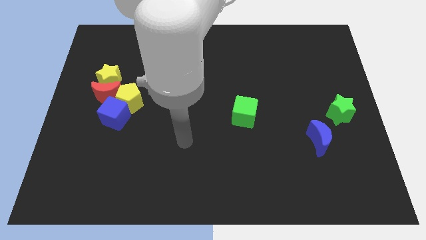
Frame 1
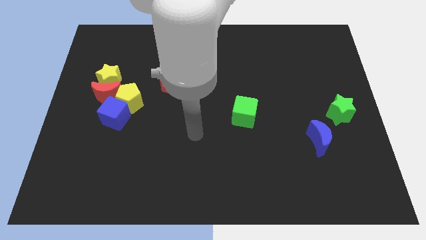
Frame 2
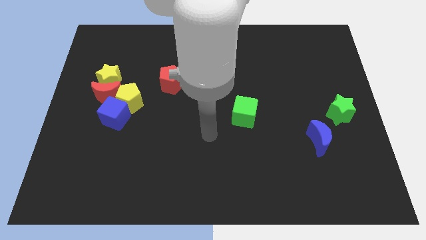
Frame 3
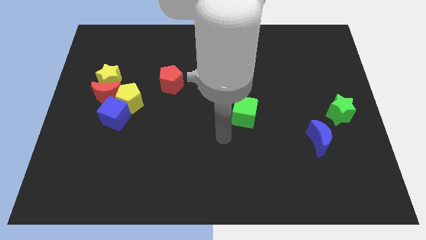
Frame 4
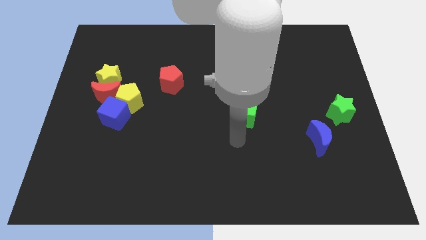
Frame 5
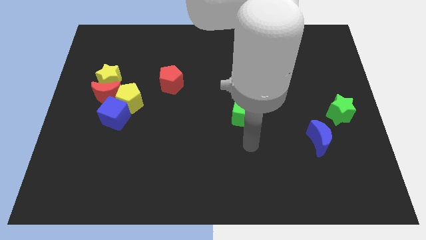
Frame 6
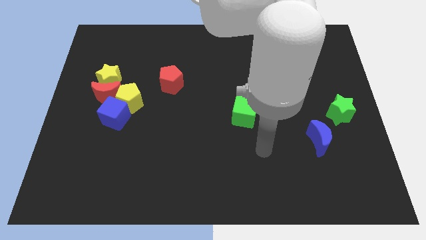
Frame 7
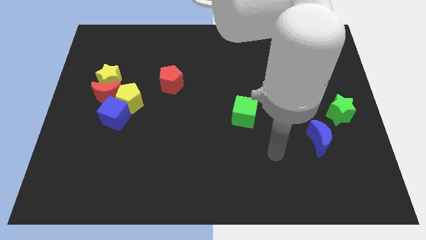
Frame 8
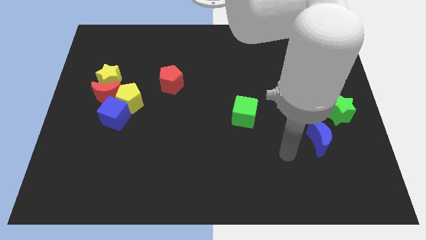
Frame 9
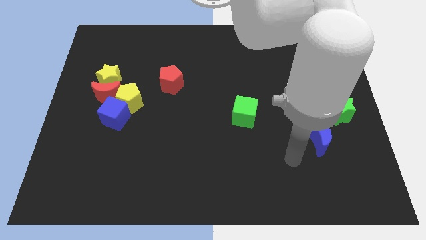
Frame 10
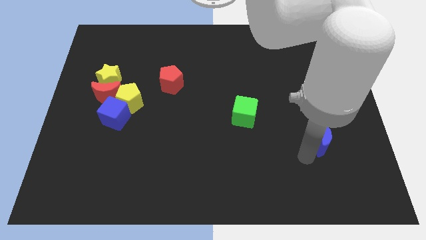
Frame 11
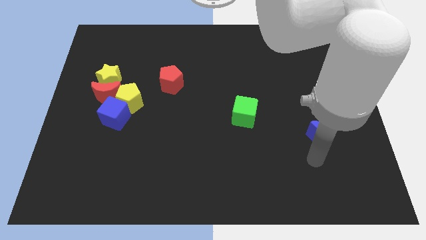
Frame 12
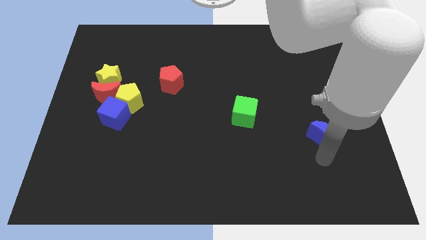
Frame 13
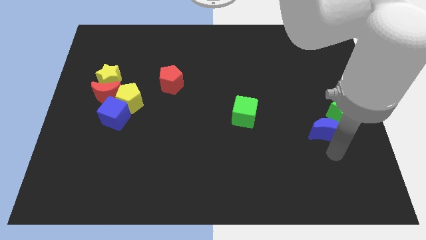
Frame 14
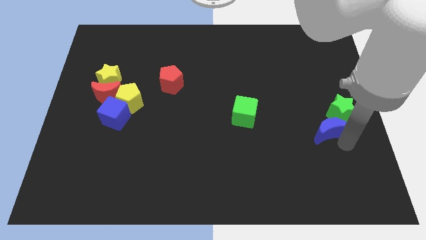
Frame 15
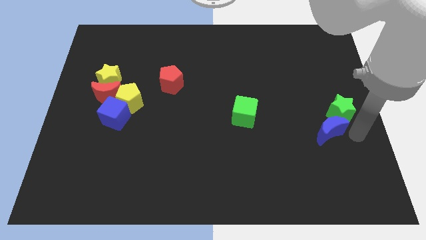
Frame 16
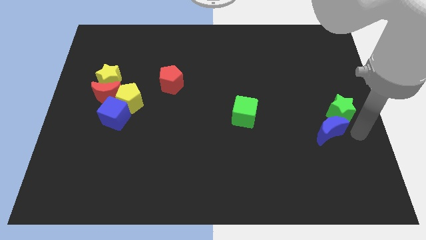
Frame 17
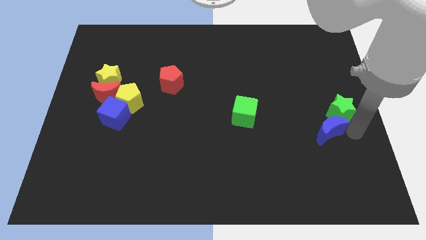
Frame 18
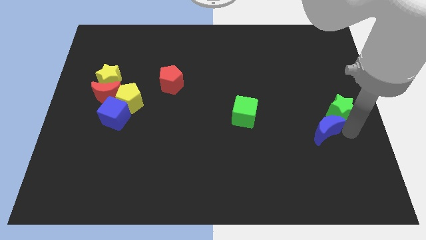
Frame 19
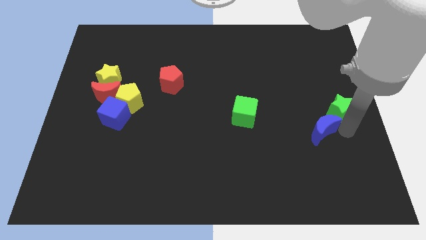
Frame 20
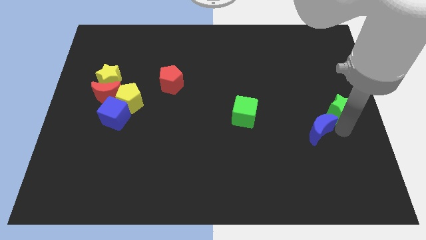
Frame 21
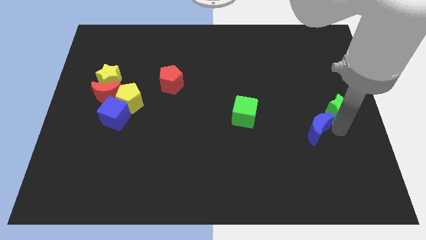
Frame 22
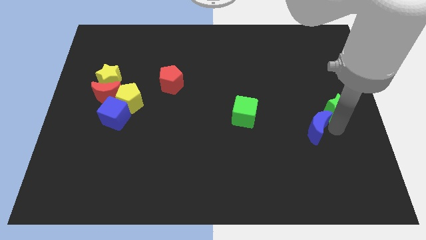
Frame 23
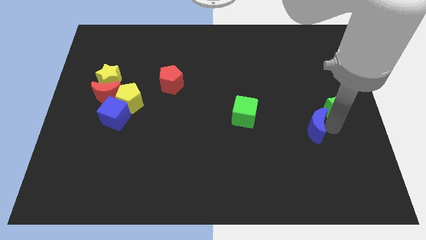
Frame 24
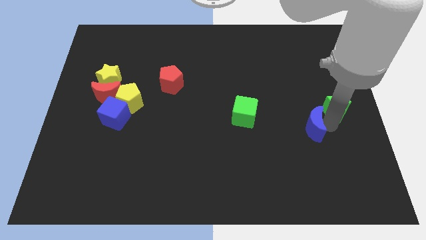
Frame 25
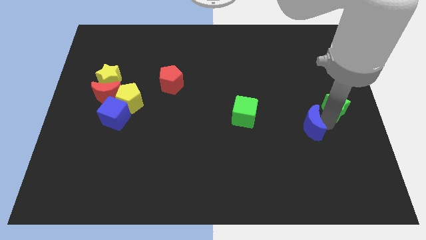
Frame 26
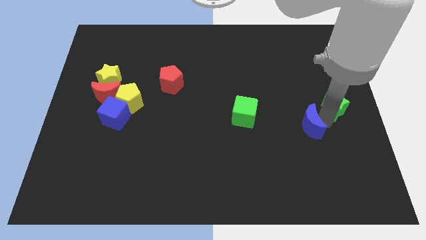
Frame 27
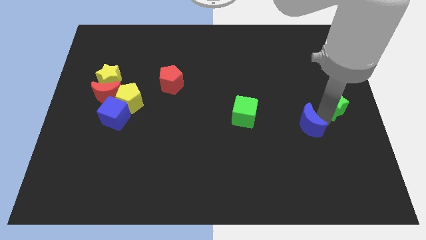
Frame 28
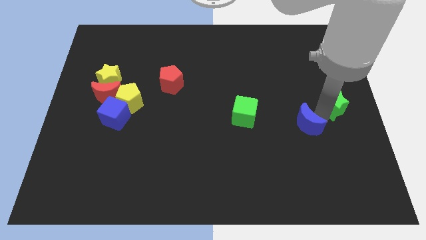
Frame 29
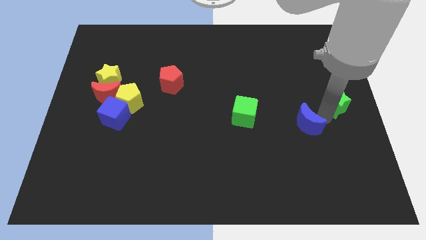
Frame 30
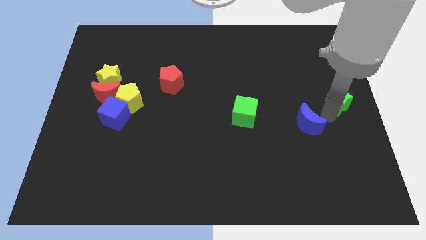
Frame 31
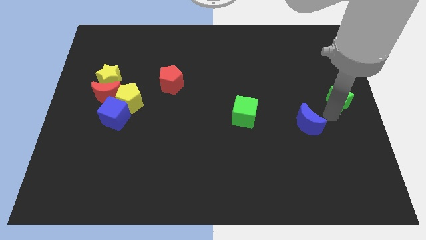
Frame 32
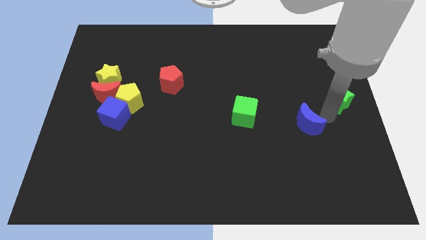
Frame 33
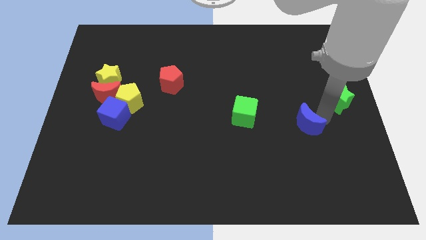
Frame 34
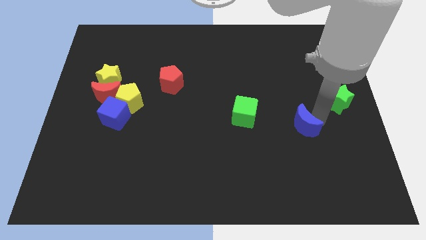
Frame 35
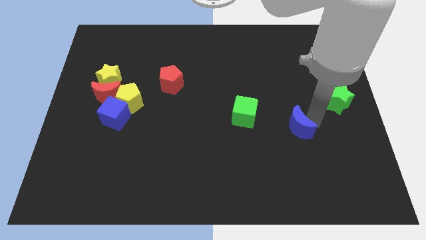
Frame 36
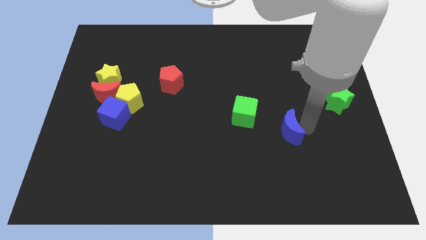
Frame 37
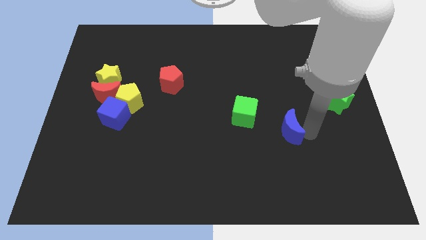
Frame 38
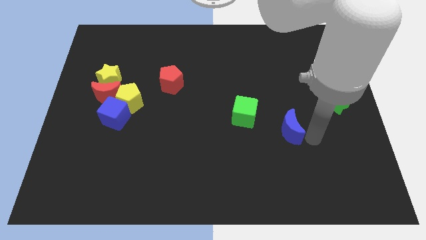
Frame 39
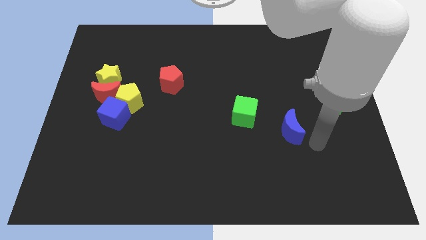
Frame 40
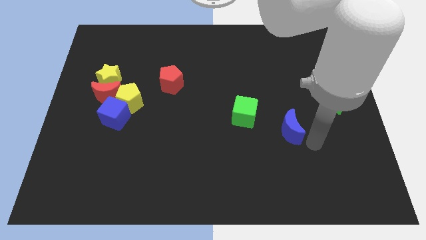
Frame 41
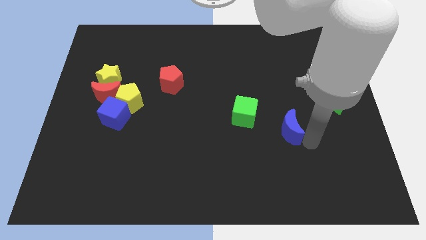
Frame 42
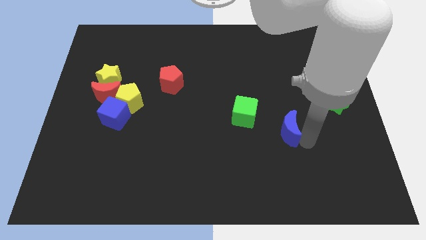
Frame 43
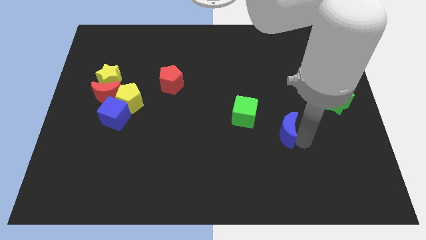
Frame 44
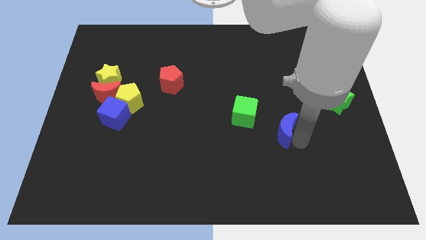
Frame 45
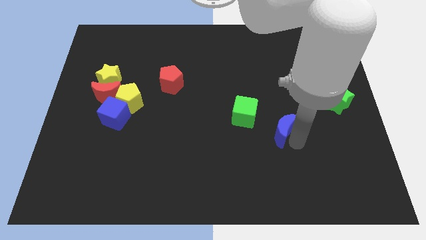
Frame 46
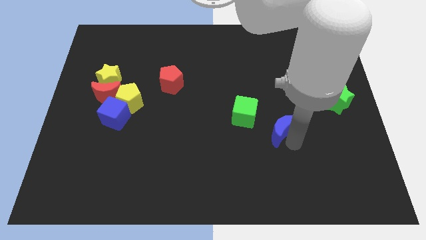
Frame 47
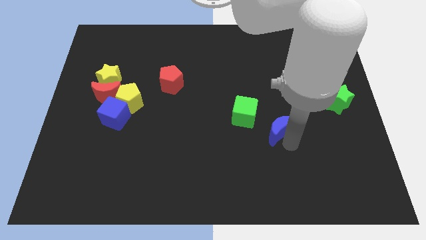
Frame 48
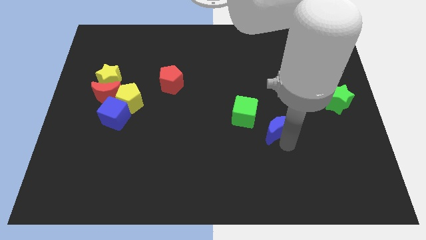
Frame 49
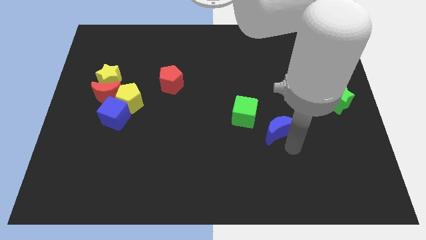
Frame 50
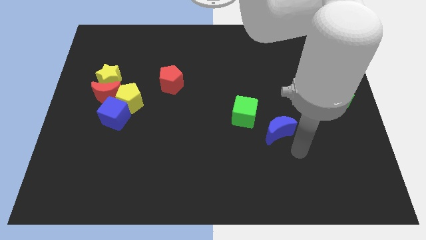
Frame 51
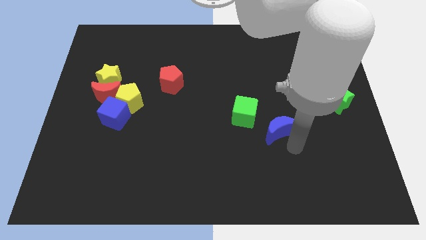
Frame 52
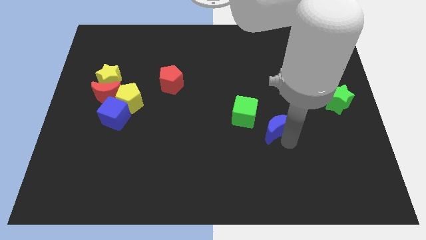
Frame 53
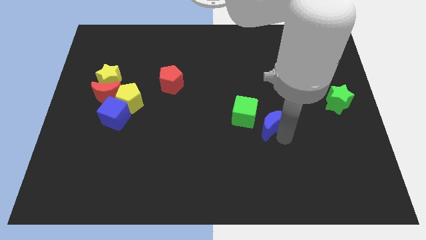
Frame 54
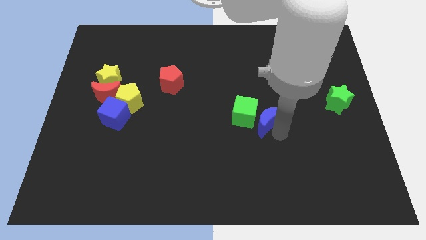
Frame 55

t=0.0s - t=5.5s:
slide the blue moon close to the green cube
